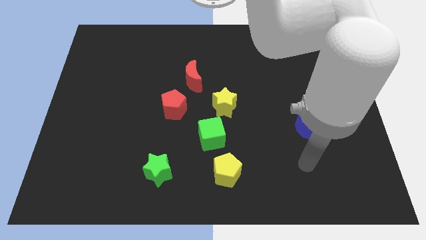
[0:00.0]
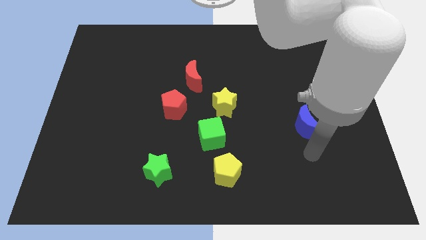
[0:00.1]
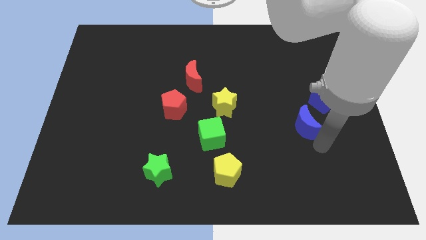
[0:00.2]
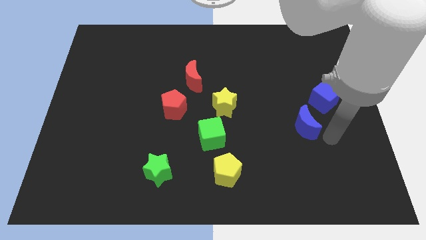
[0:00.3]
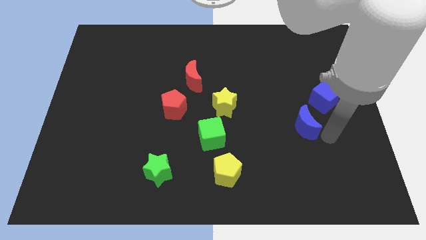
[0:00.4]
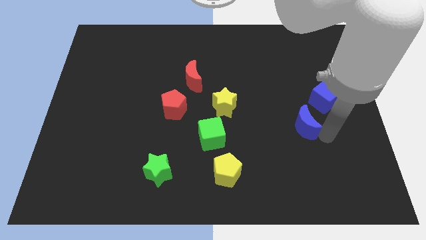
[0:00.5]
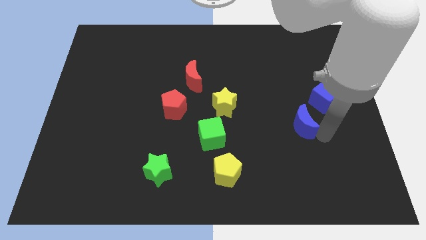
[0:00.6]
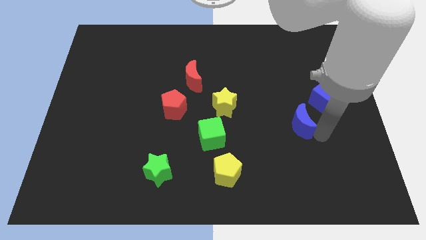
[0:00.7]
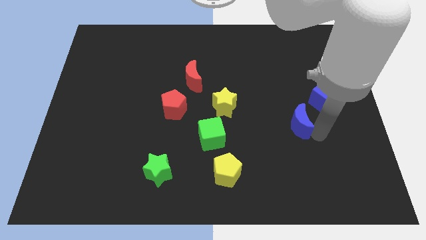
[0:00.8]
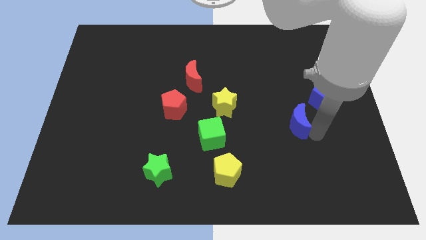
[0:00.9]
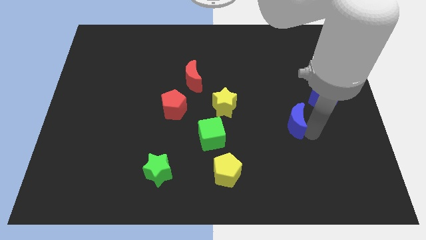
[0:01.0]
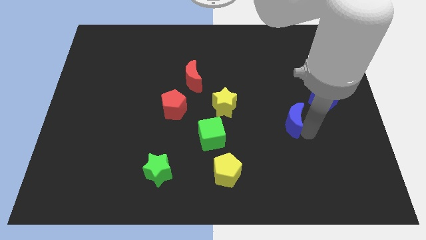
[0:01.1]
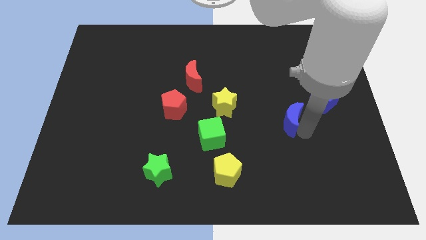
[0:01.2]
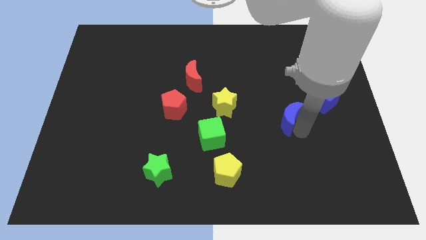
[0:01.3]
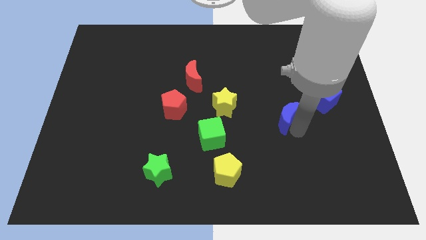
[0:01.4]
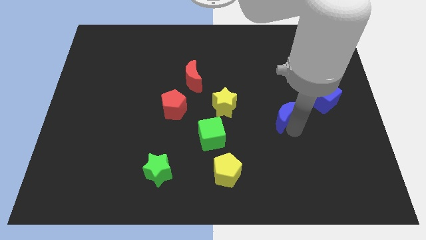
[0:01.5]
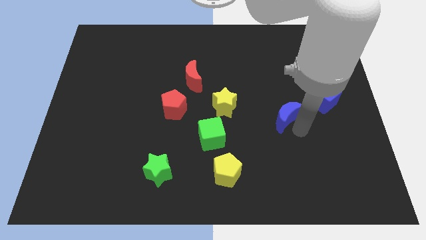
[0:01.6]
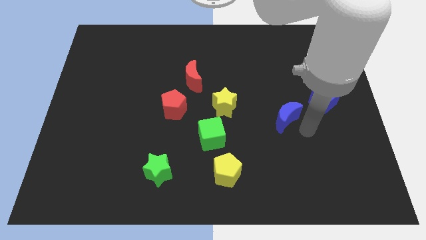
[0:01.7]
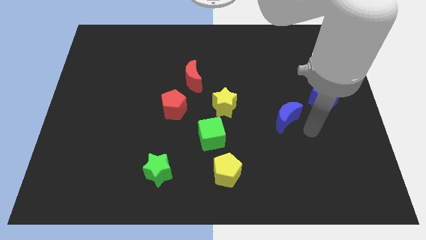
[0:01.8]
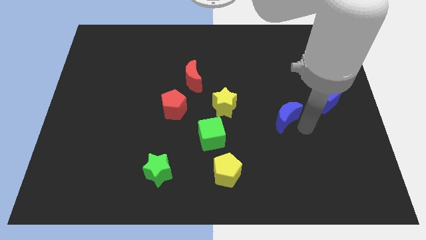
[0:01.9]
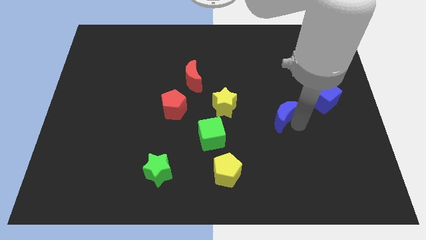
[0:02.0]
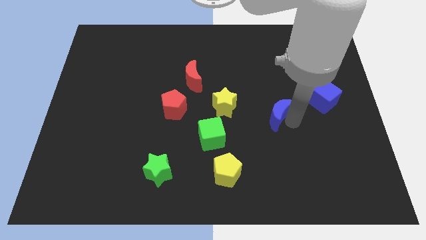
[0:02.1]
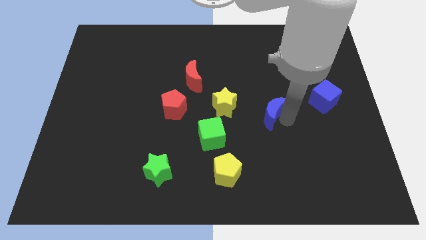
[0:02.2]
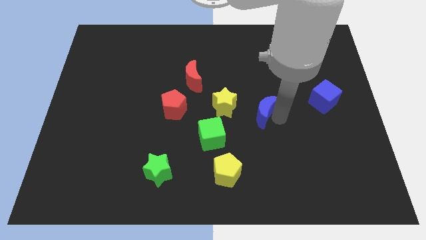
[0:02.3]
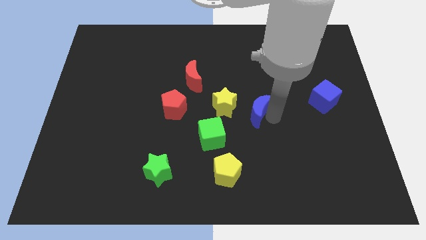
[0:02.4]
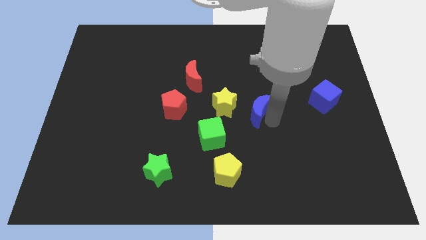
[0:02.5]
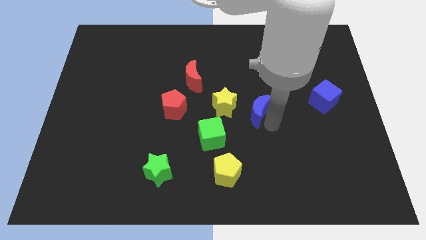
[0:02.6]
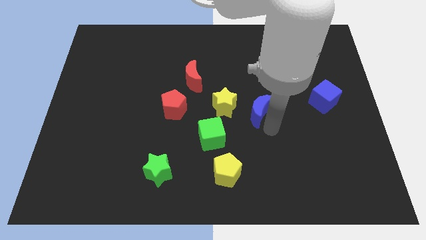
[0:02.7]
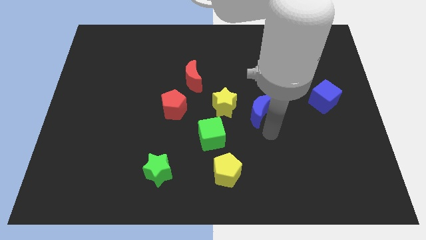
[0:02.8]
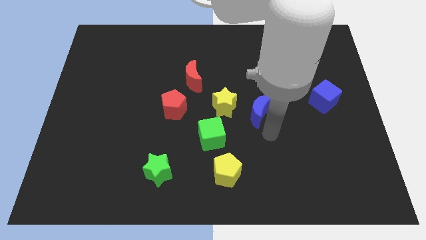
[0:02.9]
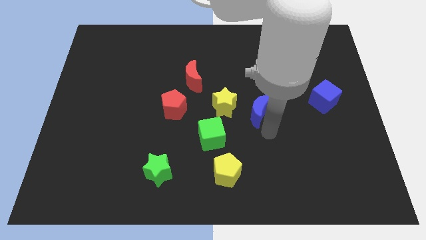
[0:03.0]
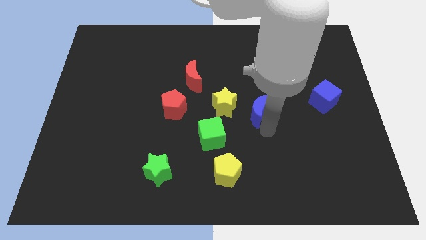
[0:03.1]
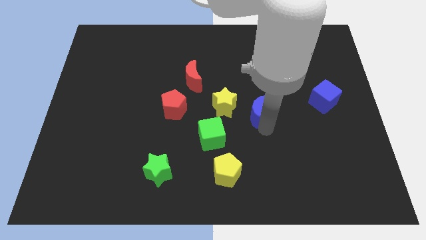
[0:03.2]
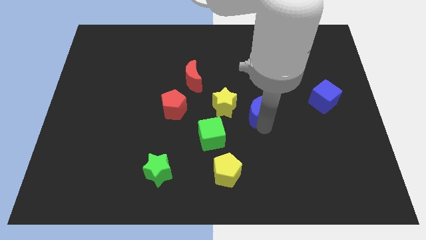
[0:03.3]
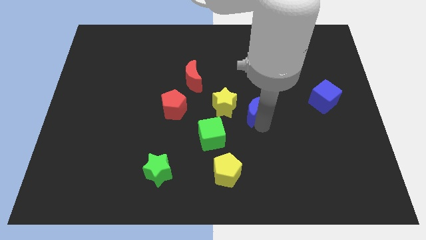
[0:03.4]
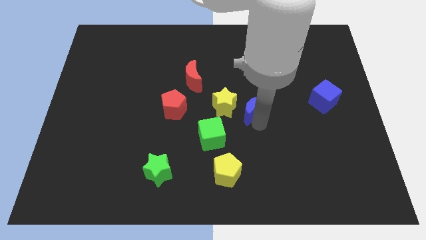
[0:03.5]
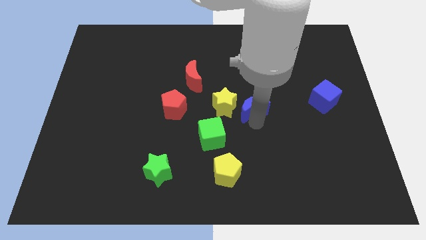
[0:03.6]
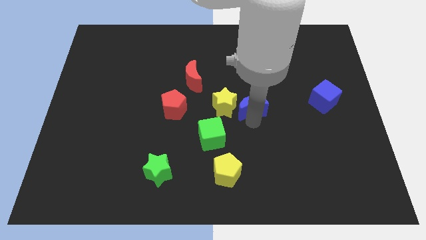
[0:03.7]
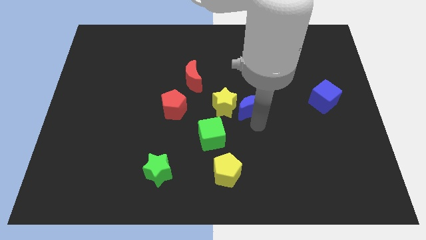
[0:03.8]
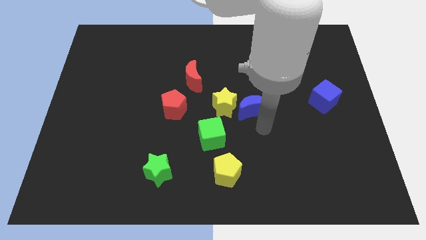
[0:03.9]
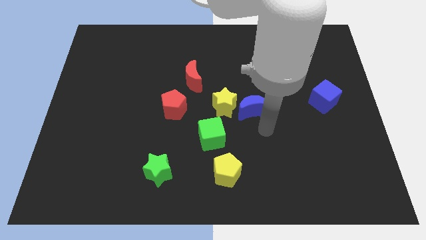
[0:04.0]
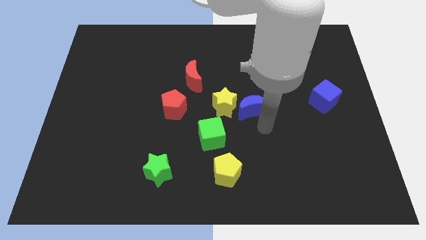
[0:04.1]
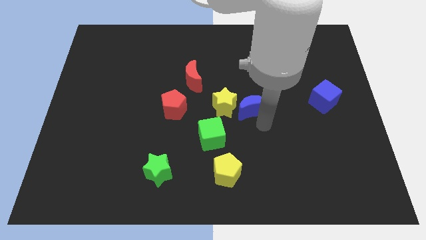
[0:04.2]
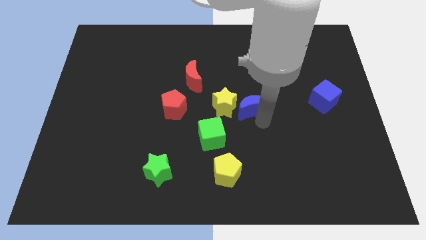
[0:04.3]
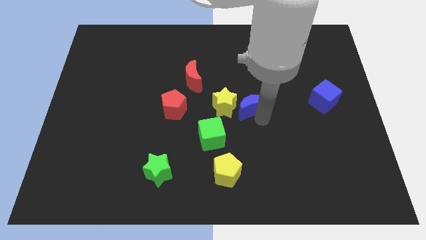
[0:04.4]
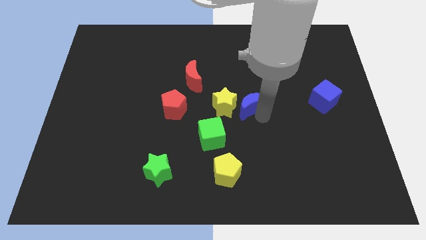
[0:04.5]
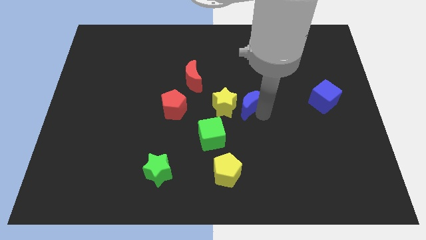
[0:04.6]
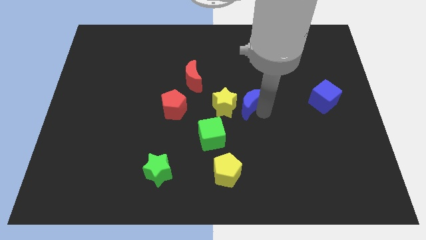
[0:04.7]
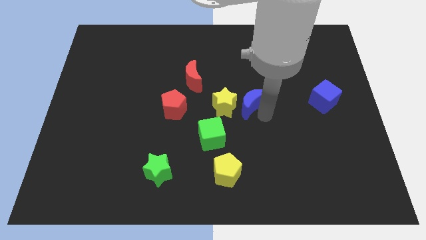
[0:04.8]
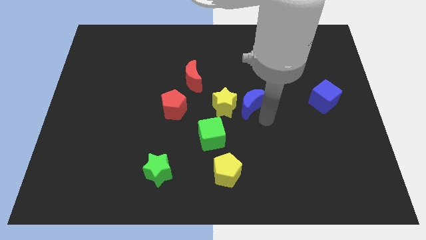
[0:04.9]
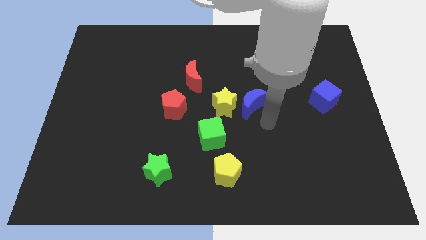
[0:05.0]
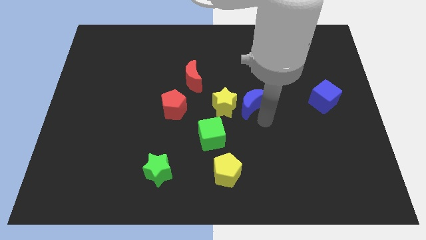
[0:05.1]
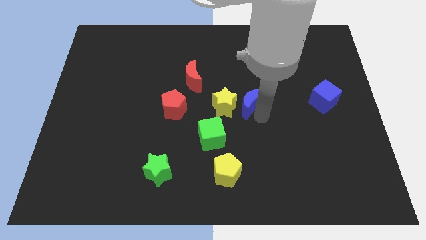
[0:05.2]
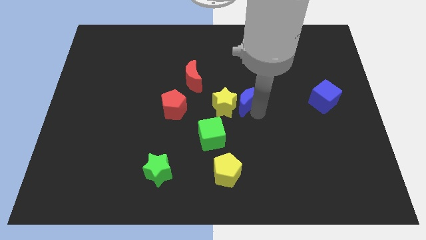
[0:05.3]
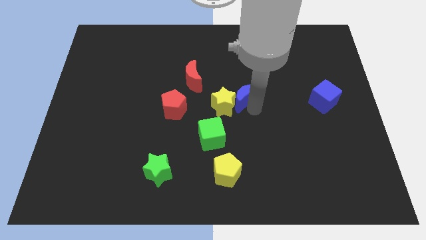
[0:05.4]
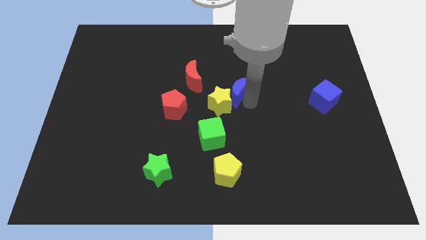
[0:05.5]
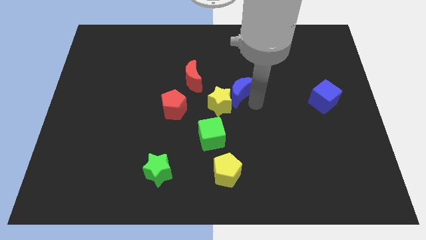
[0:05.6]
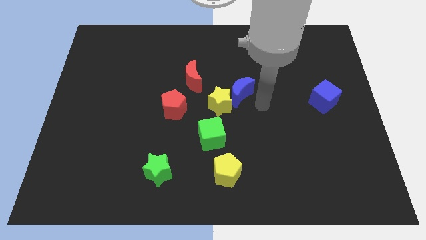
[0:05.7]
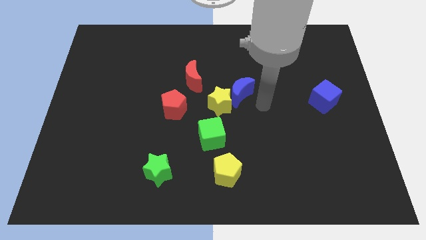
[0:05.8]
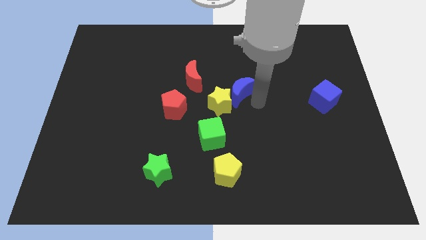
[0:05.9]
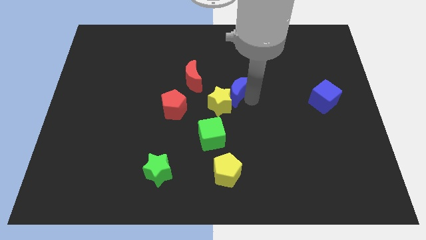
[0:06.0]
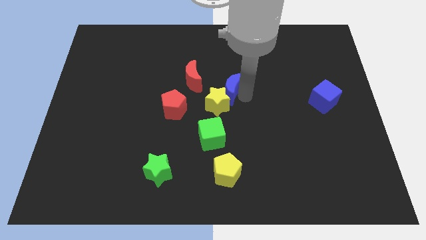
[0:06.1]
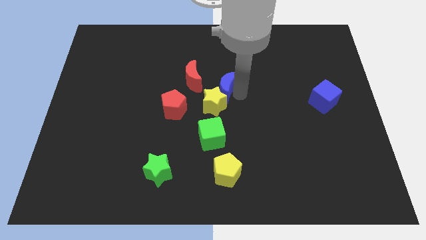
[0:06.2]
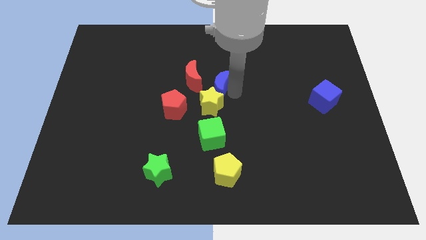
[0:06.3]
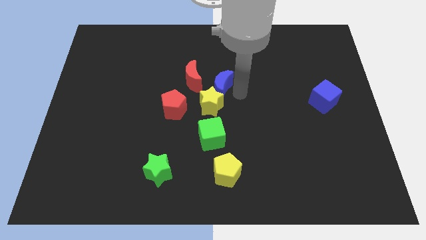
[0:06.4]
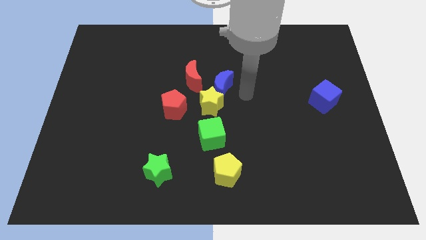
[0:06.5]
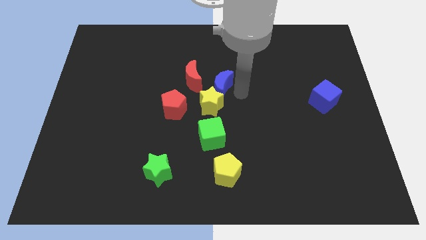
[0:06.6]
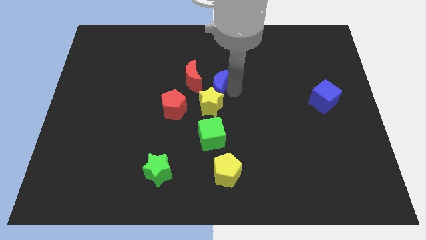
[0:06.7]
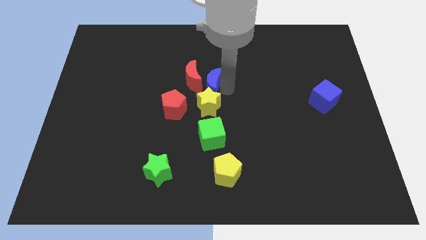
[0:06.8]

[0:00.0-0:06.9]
push the blue moon towards the red moon
